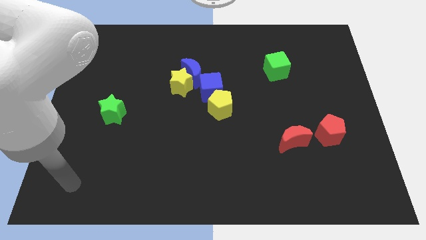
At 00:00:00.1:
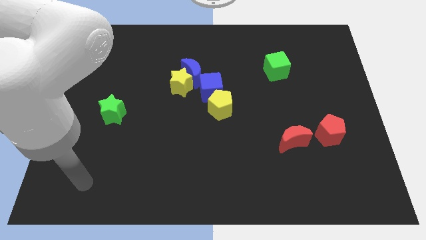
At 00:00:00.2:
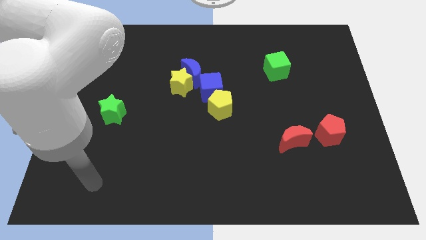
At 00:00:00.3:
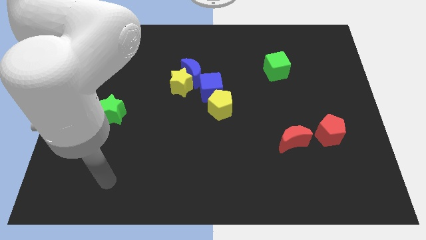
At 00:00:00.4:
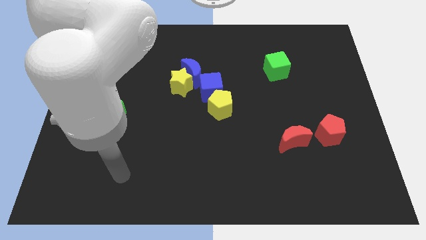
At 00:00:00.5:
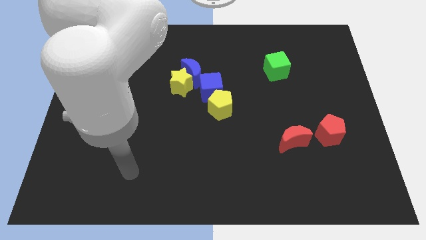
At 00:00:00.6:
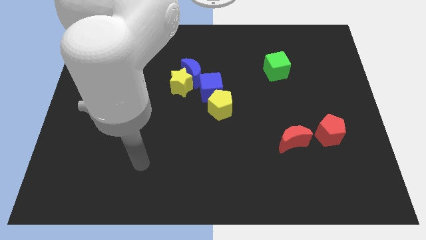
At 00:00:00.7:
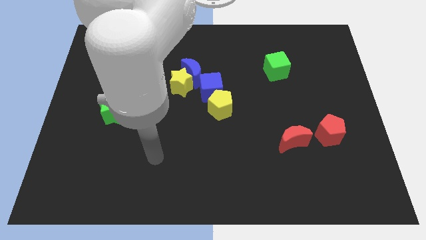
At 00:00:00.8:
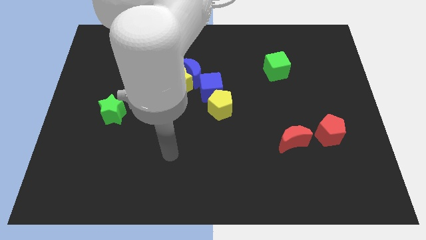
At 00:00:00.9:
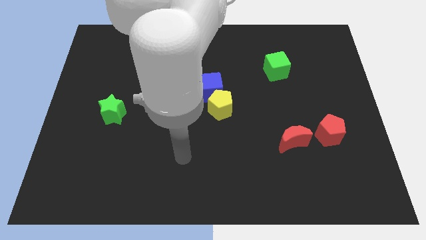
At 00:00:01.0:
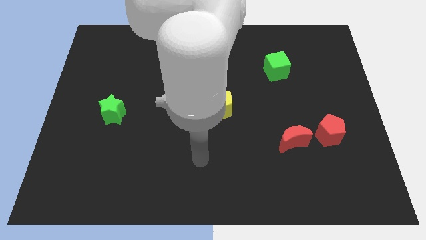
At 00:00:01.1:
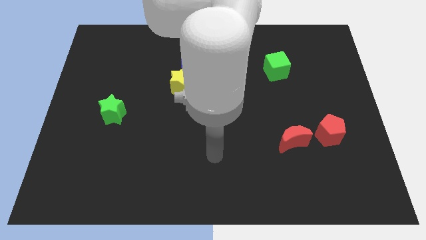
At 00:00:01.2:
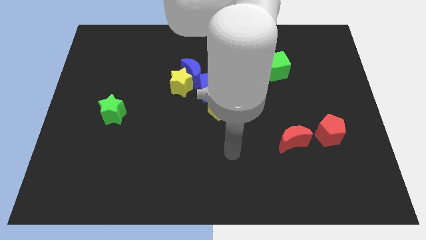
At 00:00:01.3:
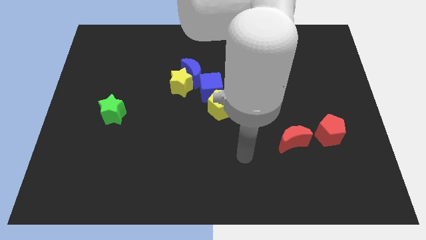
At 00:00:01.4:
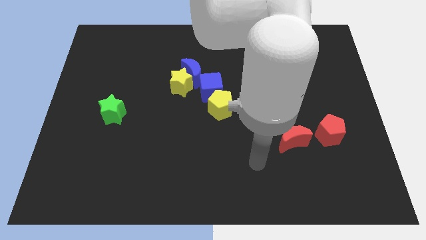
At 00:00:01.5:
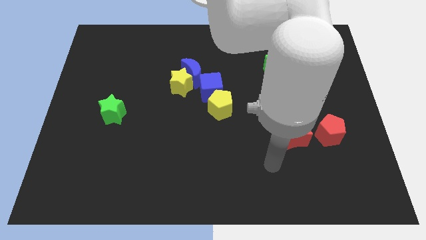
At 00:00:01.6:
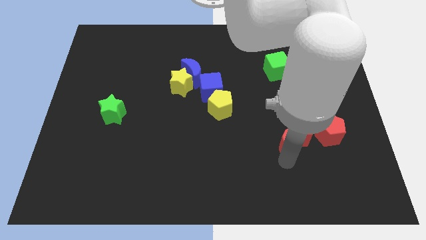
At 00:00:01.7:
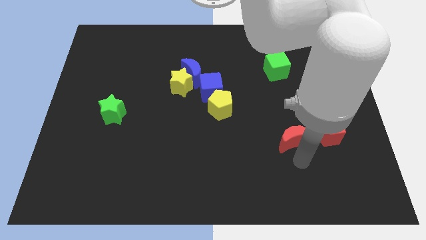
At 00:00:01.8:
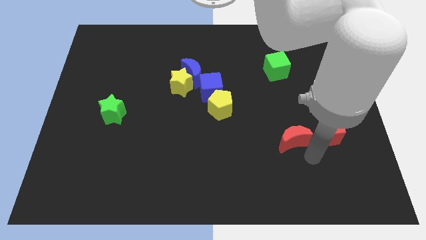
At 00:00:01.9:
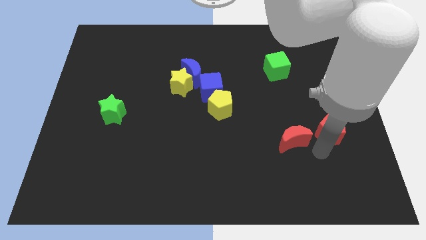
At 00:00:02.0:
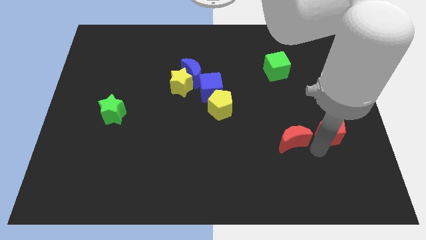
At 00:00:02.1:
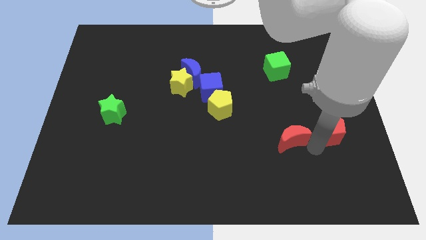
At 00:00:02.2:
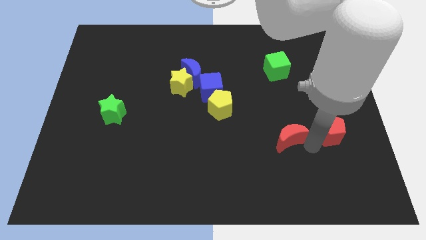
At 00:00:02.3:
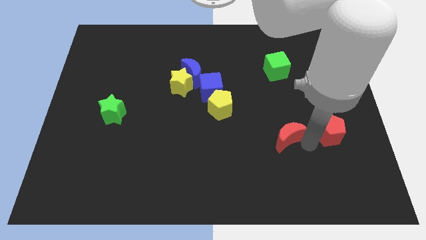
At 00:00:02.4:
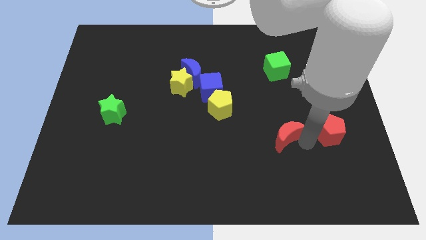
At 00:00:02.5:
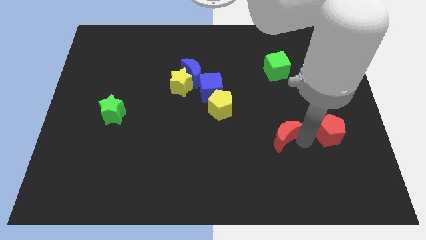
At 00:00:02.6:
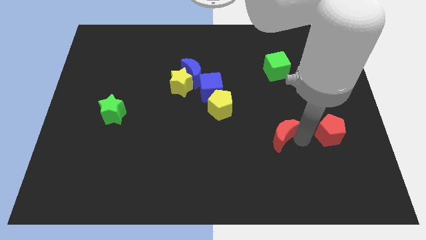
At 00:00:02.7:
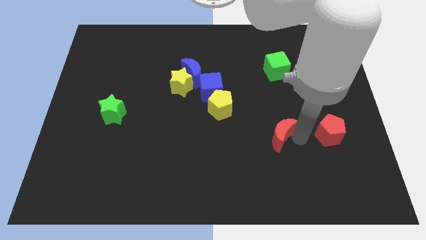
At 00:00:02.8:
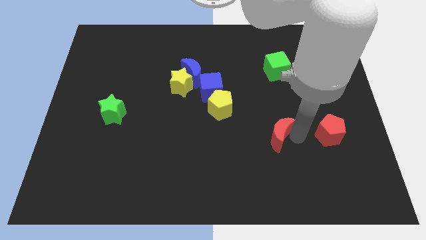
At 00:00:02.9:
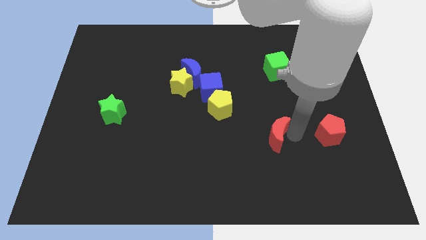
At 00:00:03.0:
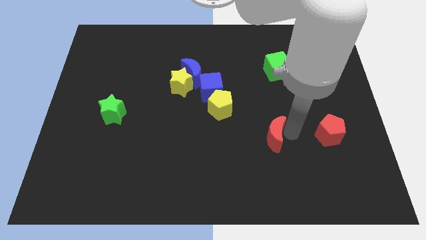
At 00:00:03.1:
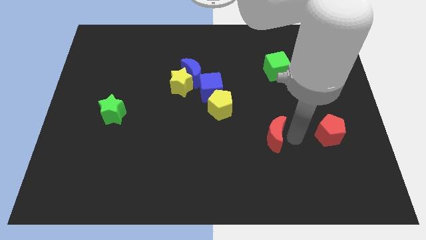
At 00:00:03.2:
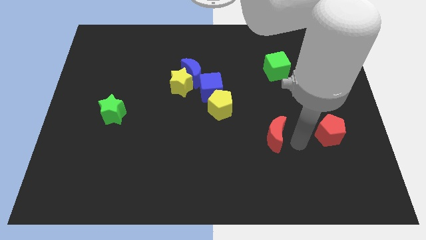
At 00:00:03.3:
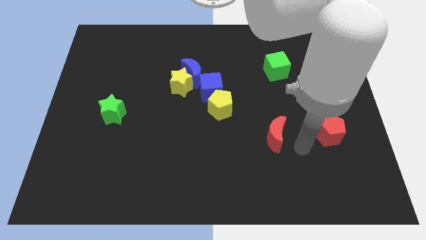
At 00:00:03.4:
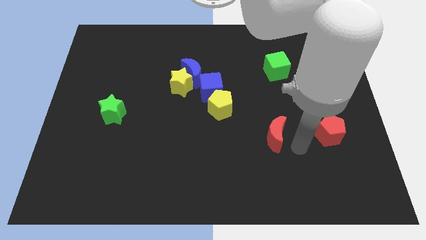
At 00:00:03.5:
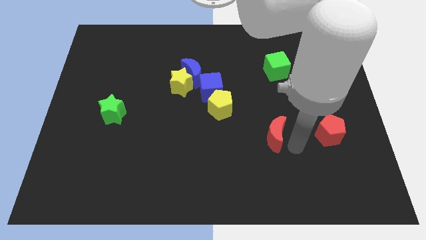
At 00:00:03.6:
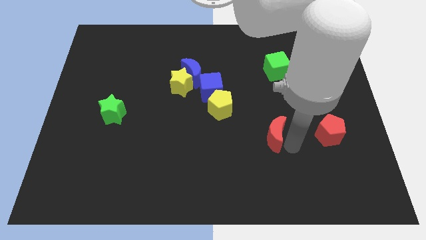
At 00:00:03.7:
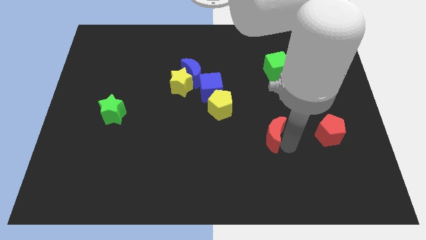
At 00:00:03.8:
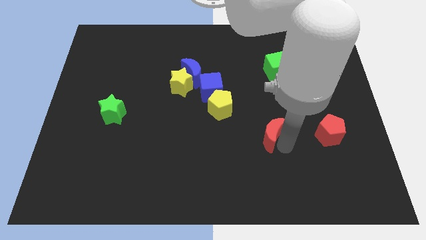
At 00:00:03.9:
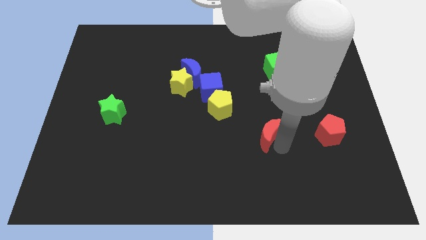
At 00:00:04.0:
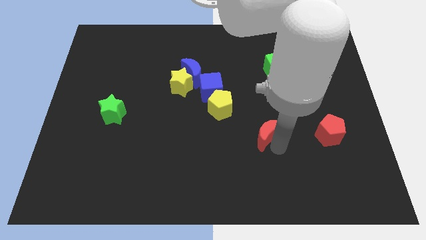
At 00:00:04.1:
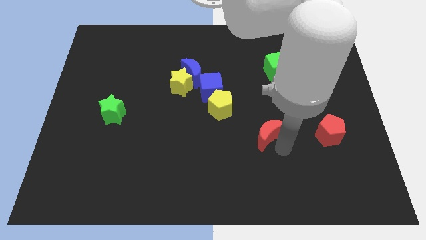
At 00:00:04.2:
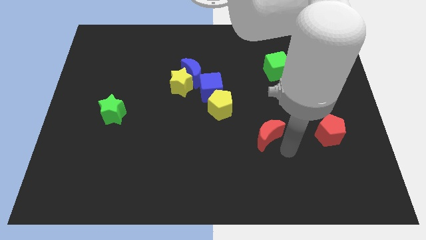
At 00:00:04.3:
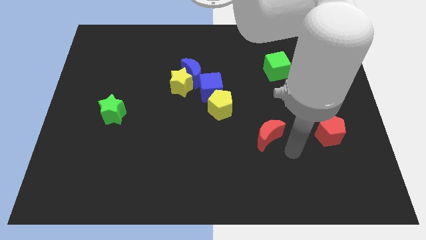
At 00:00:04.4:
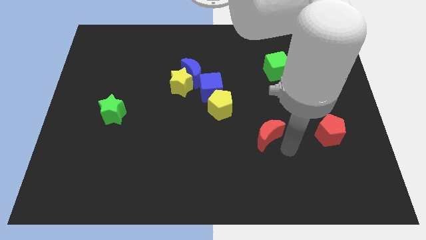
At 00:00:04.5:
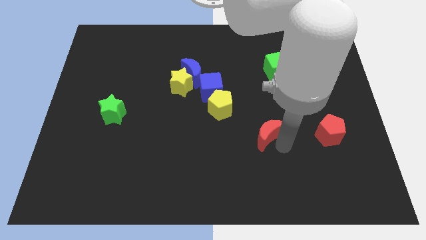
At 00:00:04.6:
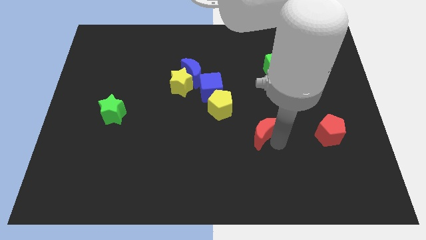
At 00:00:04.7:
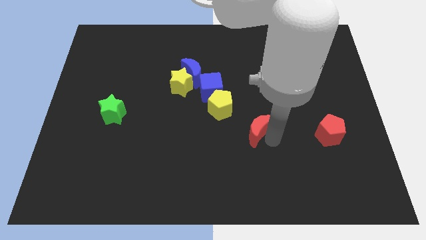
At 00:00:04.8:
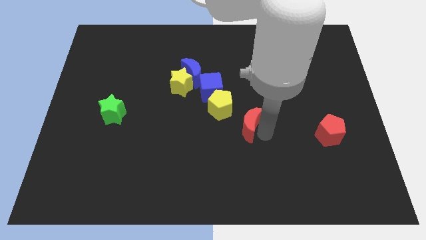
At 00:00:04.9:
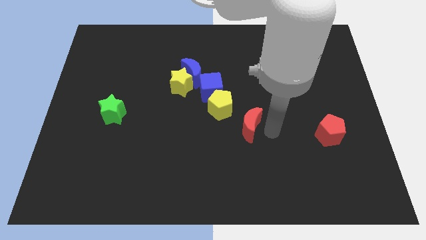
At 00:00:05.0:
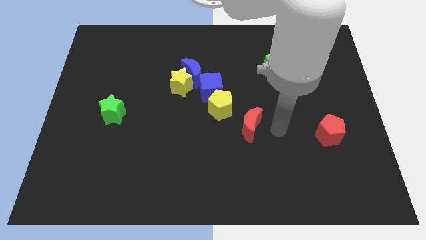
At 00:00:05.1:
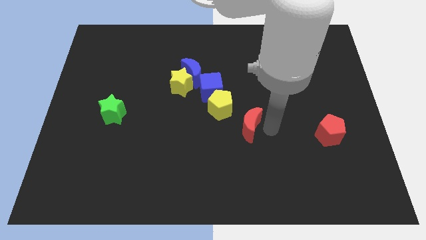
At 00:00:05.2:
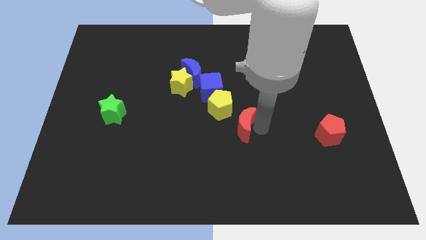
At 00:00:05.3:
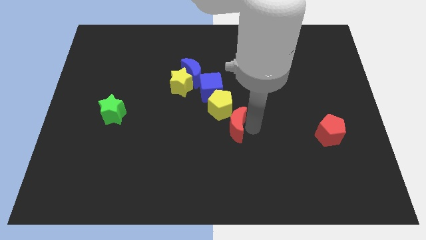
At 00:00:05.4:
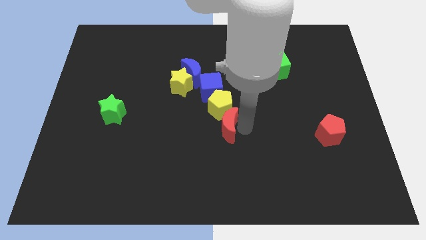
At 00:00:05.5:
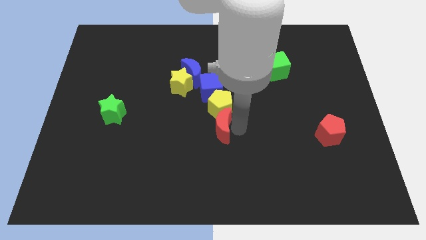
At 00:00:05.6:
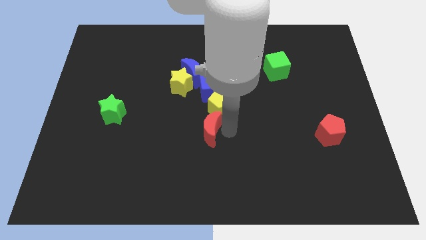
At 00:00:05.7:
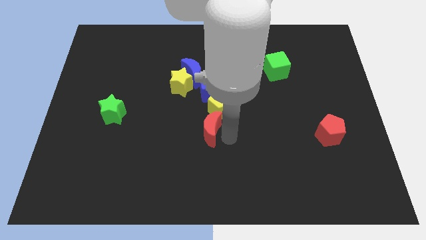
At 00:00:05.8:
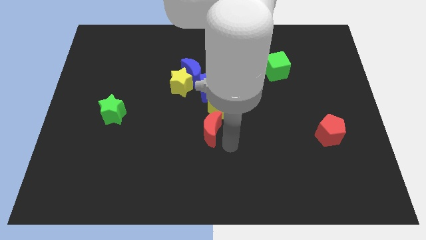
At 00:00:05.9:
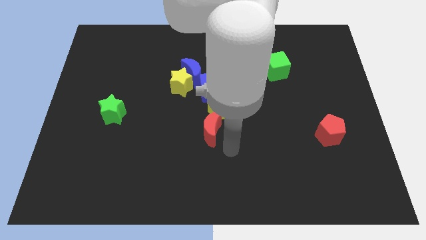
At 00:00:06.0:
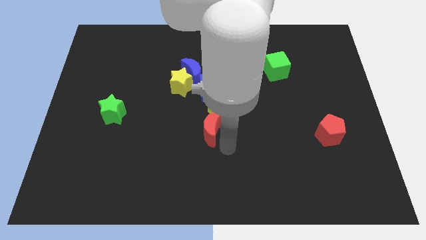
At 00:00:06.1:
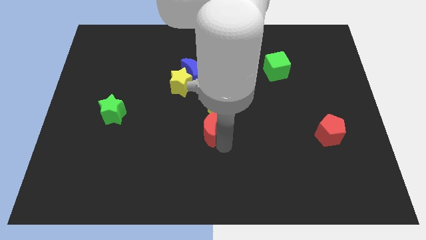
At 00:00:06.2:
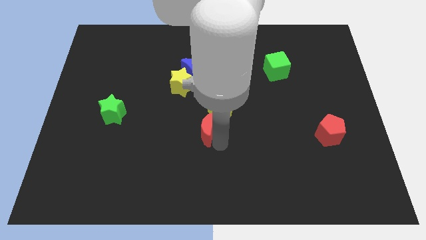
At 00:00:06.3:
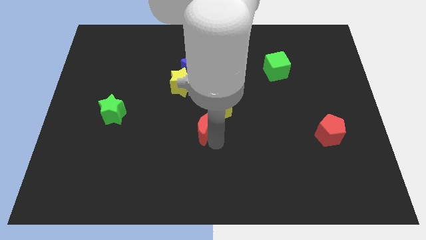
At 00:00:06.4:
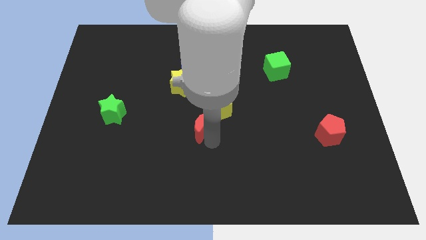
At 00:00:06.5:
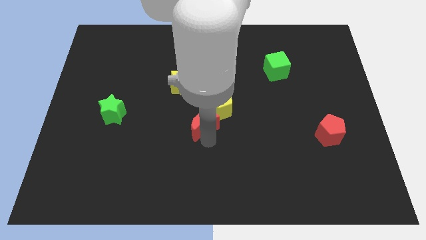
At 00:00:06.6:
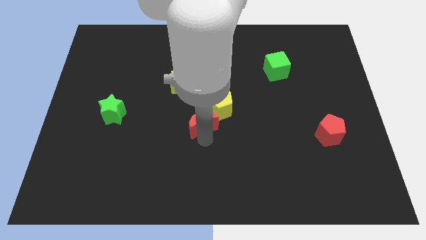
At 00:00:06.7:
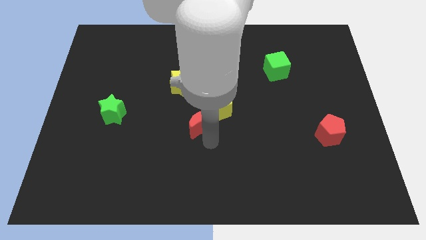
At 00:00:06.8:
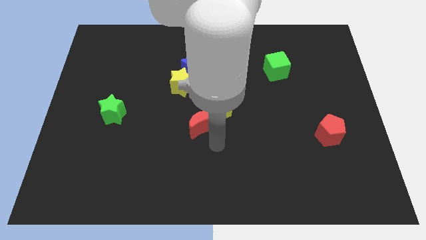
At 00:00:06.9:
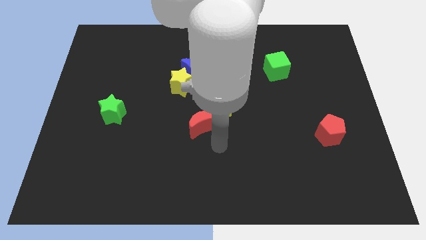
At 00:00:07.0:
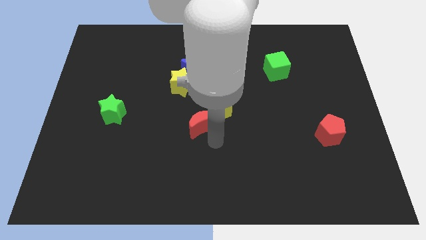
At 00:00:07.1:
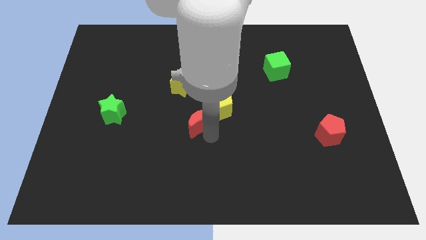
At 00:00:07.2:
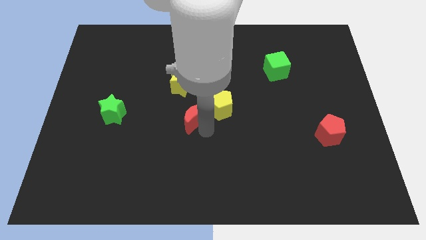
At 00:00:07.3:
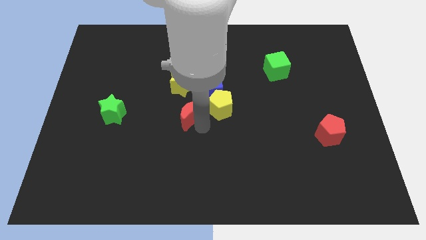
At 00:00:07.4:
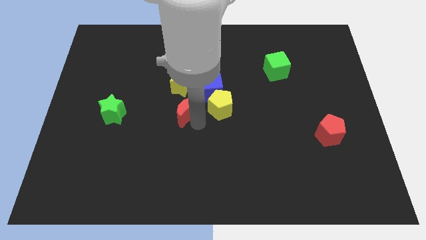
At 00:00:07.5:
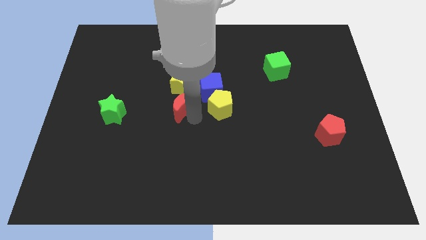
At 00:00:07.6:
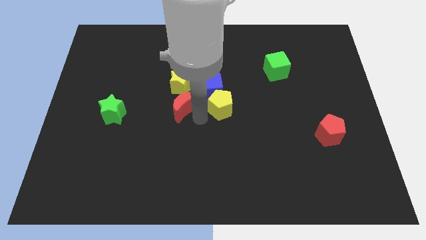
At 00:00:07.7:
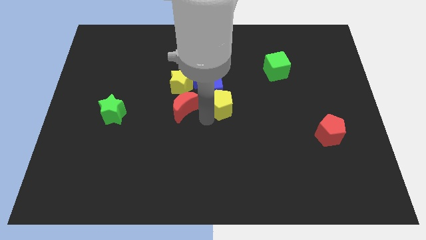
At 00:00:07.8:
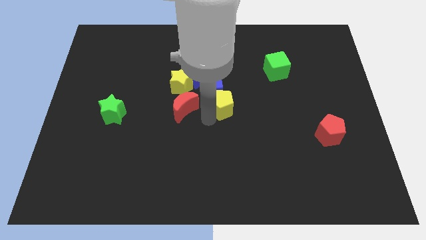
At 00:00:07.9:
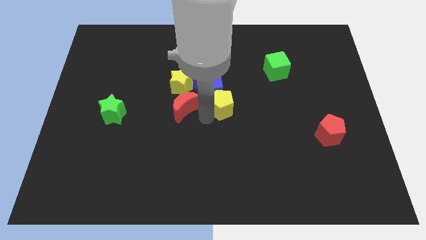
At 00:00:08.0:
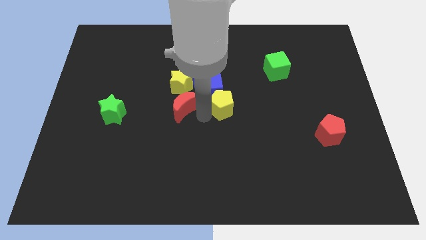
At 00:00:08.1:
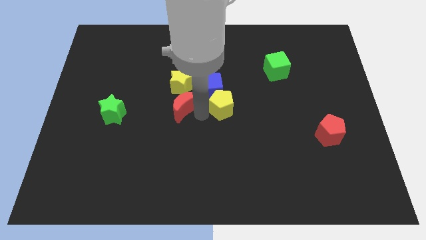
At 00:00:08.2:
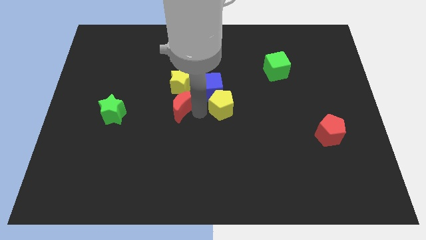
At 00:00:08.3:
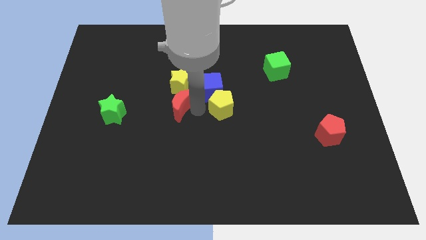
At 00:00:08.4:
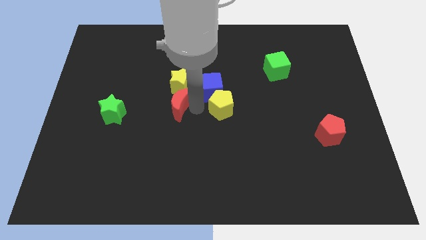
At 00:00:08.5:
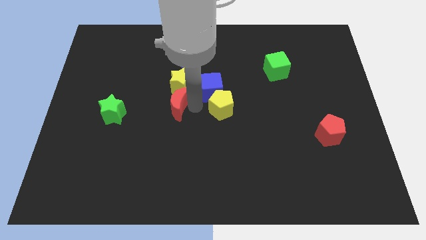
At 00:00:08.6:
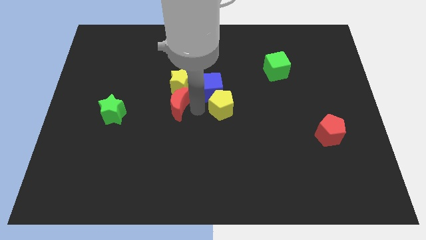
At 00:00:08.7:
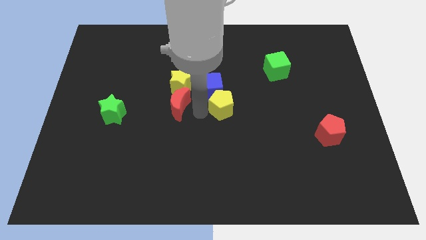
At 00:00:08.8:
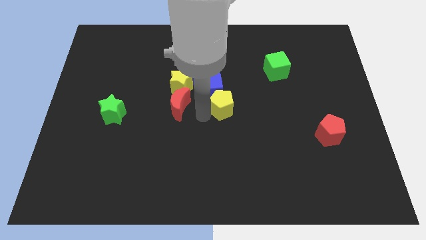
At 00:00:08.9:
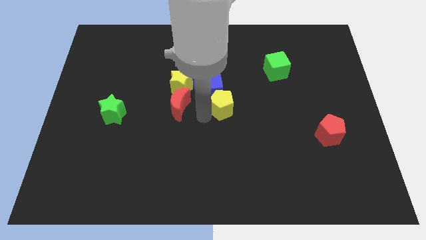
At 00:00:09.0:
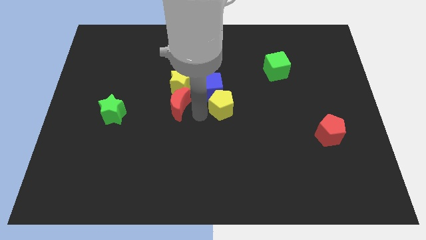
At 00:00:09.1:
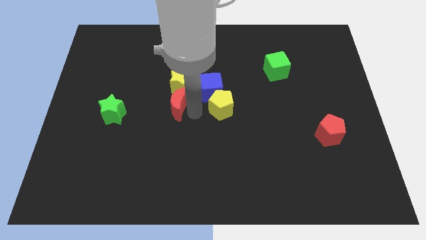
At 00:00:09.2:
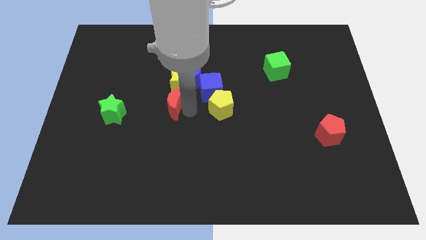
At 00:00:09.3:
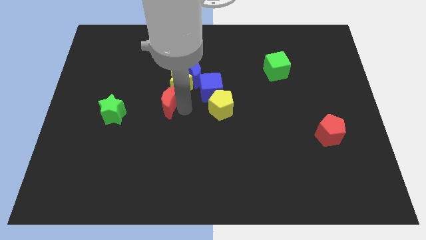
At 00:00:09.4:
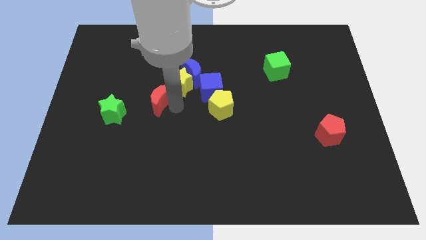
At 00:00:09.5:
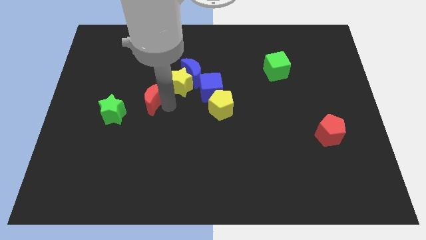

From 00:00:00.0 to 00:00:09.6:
put the red moon left of the yellow star
